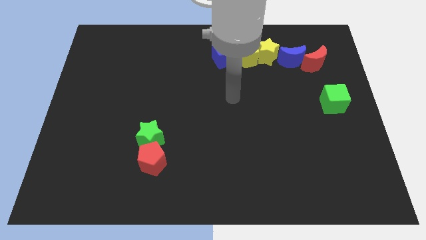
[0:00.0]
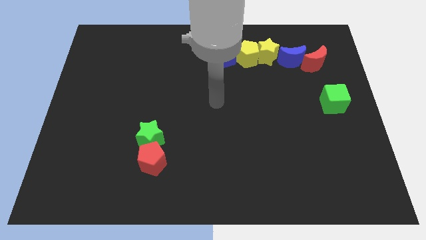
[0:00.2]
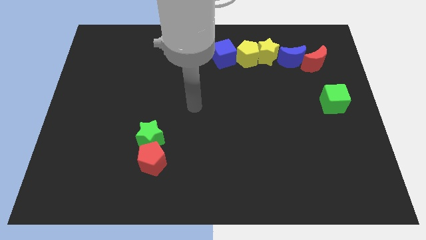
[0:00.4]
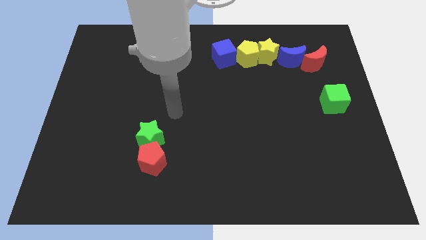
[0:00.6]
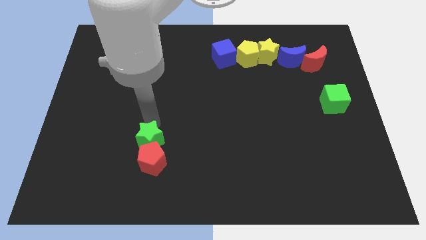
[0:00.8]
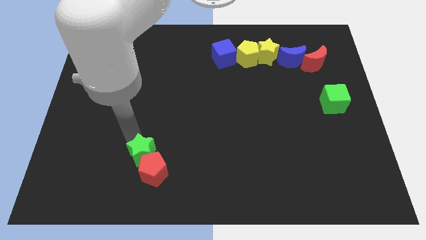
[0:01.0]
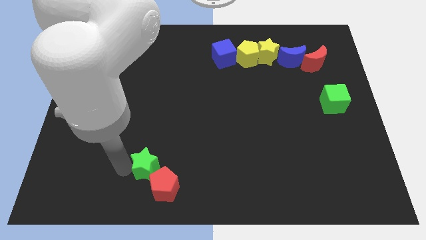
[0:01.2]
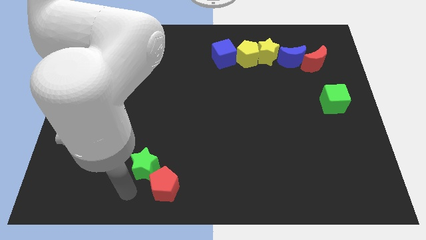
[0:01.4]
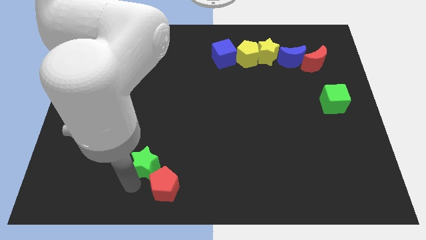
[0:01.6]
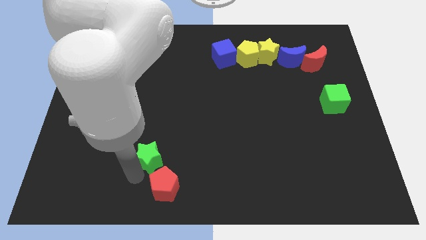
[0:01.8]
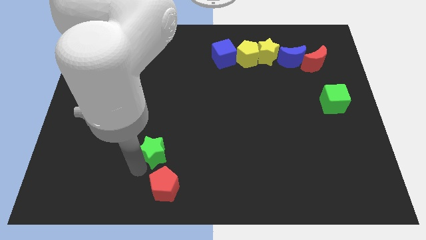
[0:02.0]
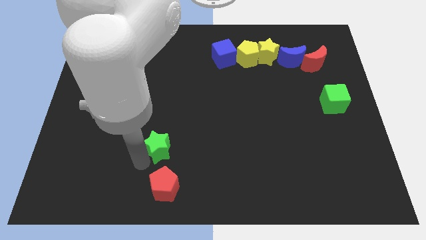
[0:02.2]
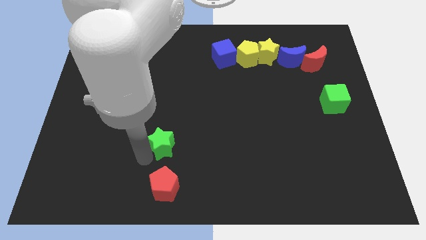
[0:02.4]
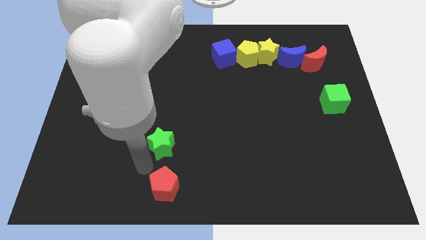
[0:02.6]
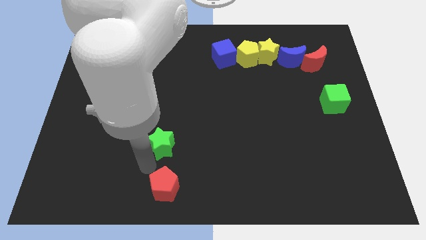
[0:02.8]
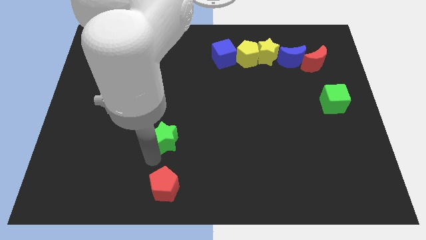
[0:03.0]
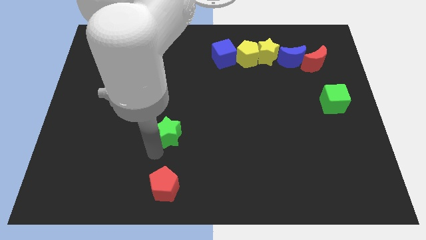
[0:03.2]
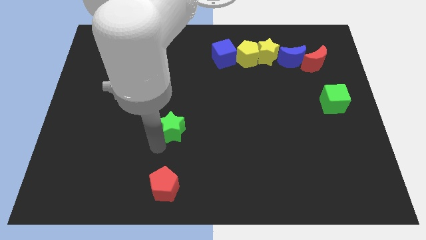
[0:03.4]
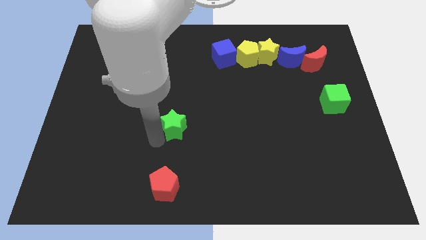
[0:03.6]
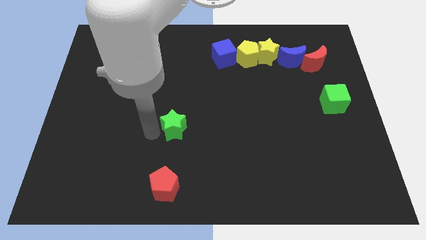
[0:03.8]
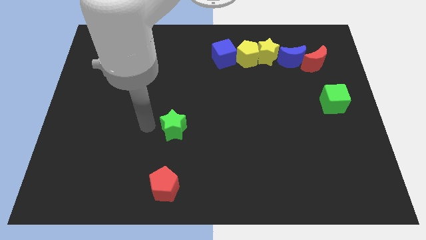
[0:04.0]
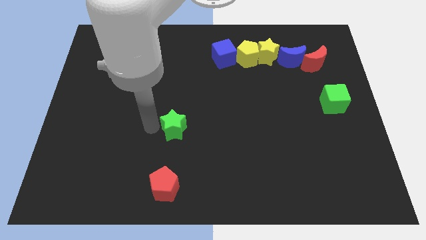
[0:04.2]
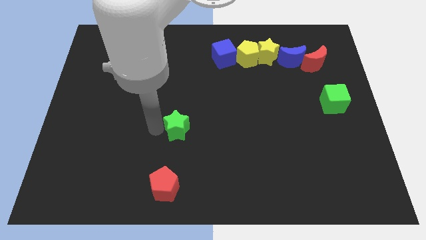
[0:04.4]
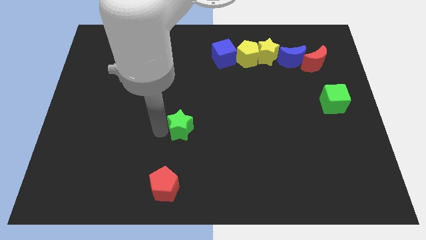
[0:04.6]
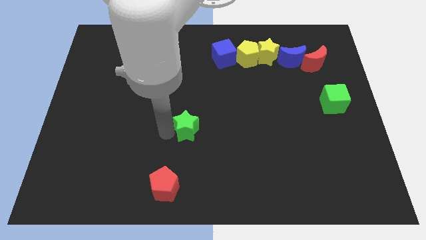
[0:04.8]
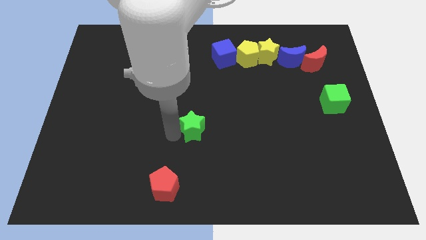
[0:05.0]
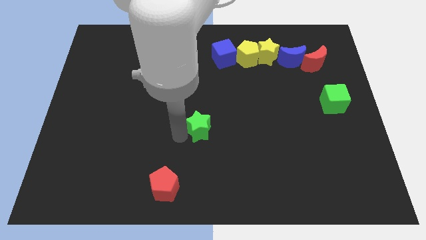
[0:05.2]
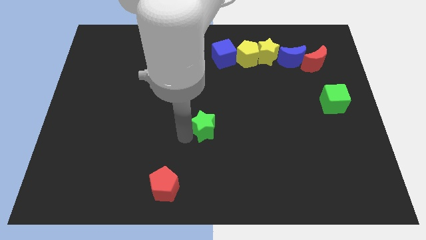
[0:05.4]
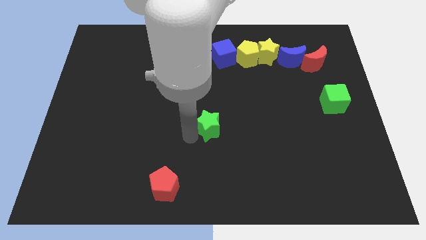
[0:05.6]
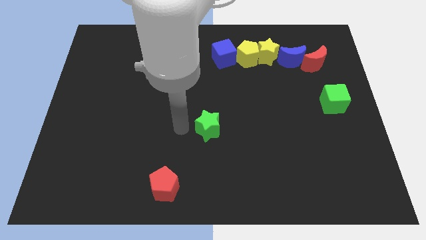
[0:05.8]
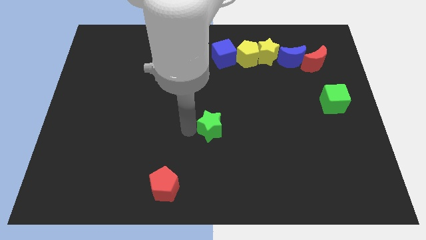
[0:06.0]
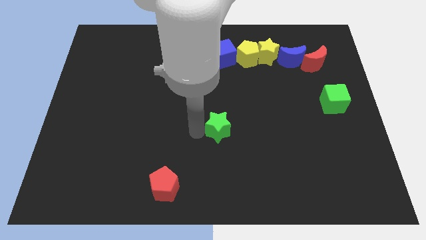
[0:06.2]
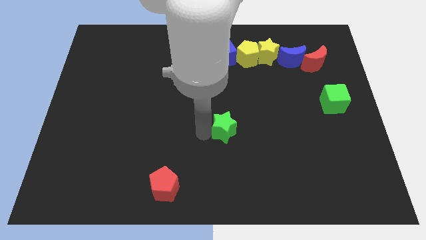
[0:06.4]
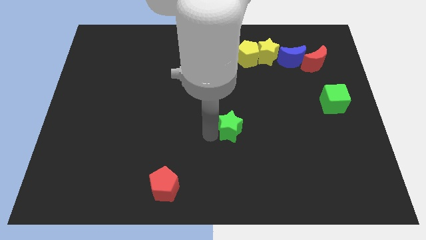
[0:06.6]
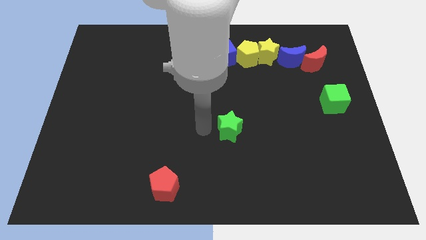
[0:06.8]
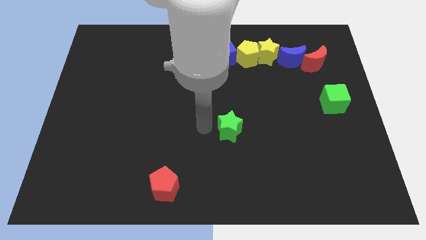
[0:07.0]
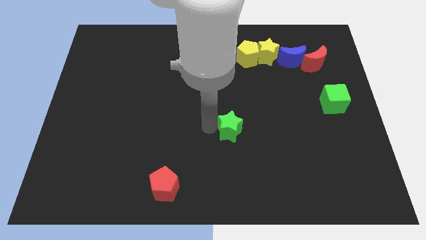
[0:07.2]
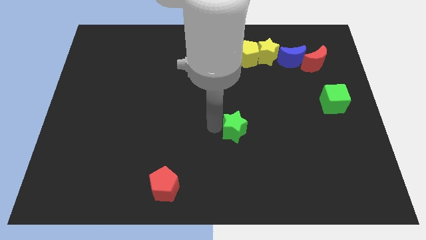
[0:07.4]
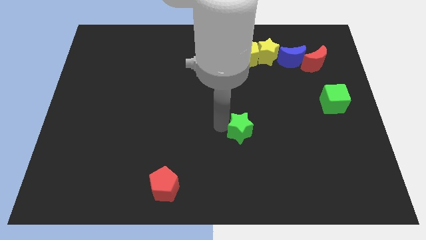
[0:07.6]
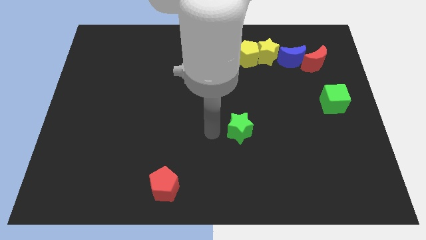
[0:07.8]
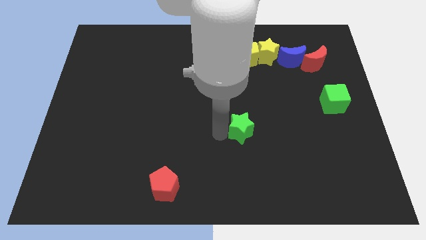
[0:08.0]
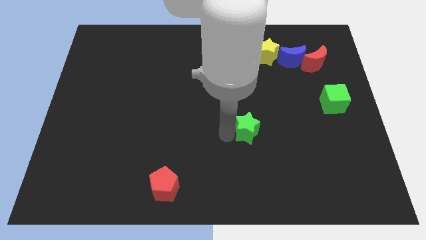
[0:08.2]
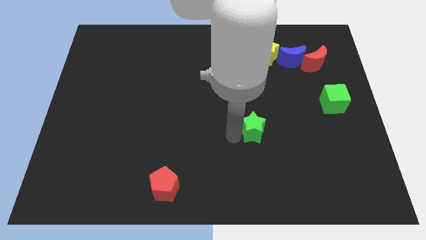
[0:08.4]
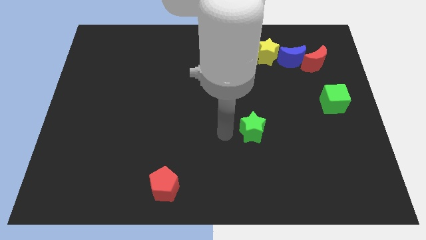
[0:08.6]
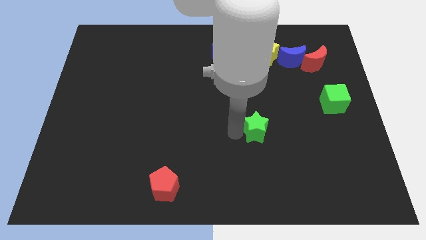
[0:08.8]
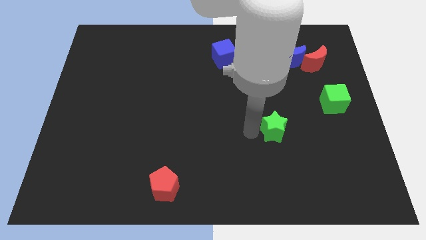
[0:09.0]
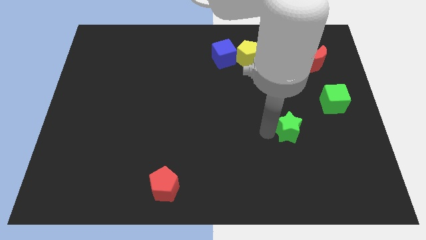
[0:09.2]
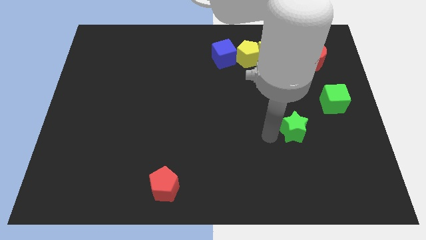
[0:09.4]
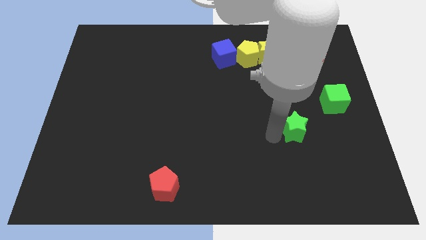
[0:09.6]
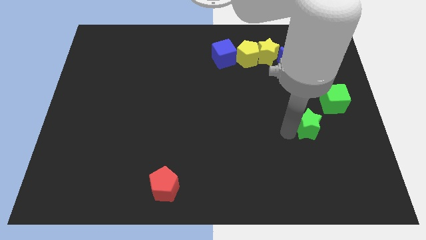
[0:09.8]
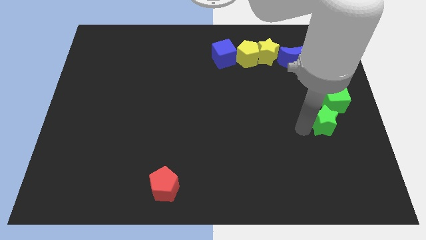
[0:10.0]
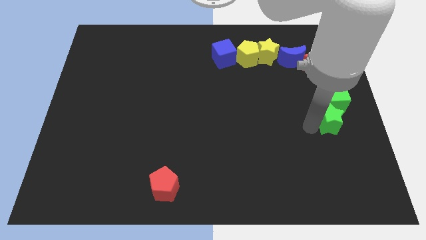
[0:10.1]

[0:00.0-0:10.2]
move the green star to the center right

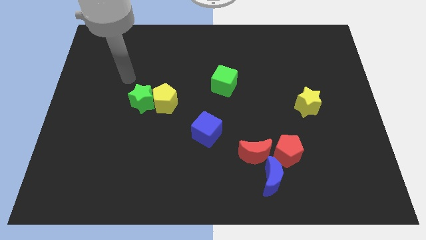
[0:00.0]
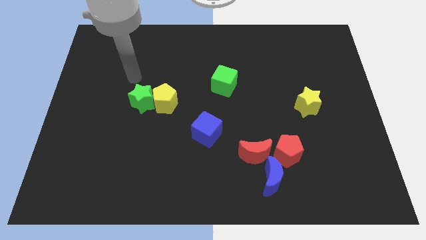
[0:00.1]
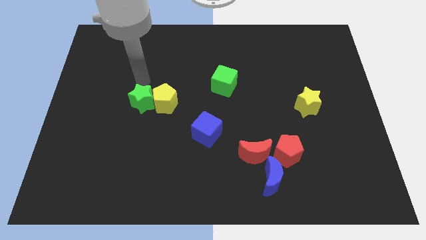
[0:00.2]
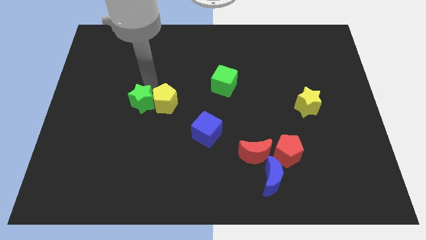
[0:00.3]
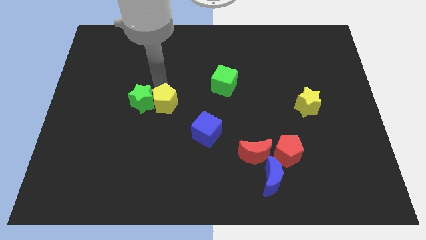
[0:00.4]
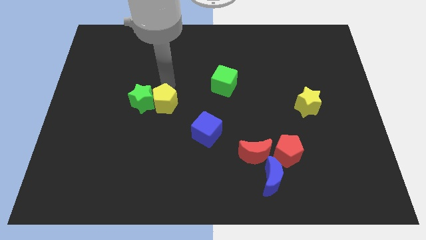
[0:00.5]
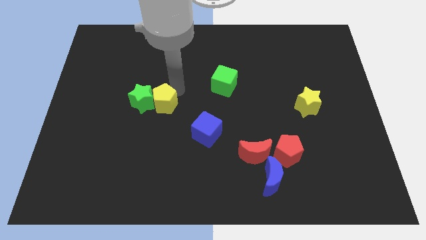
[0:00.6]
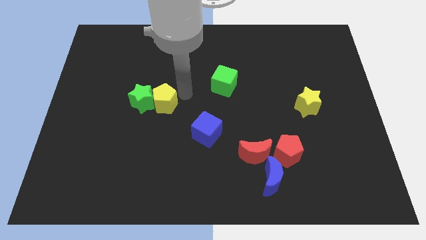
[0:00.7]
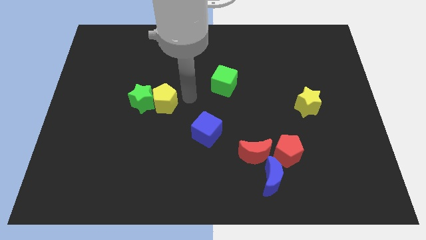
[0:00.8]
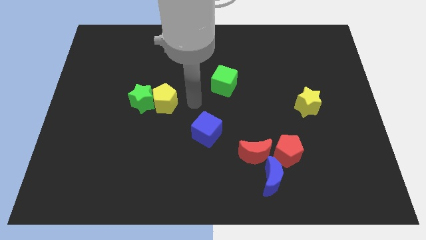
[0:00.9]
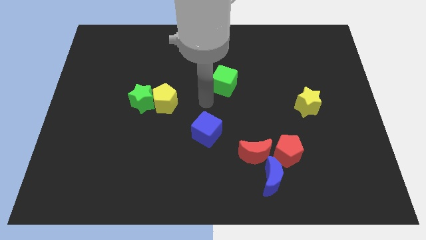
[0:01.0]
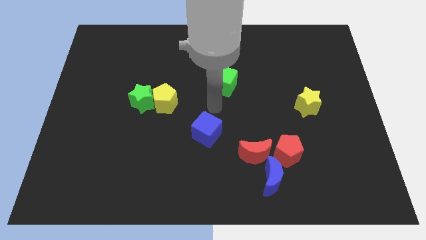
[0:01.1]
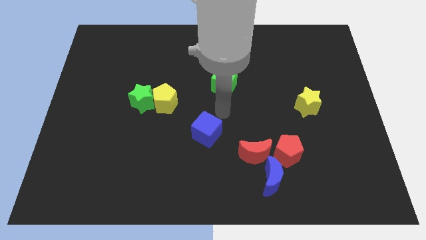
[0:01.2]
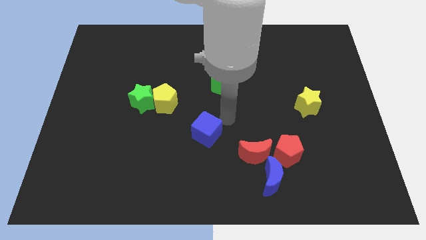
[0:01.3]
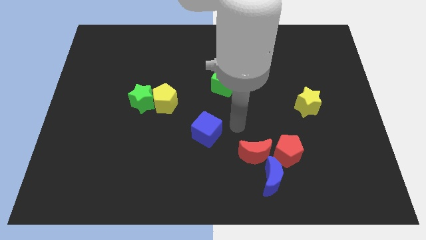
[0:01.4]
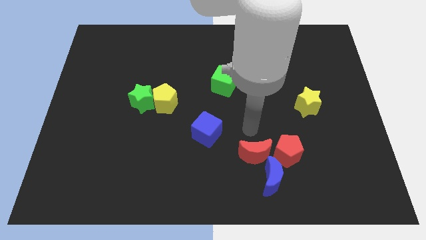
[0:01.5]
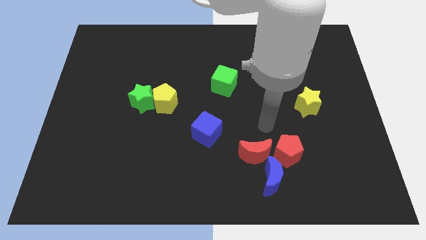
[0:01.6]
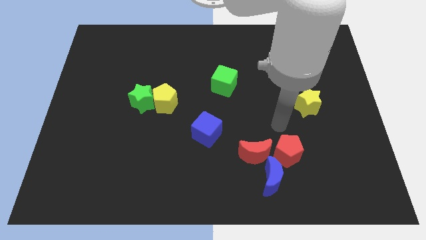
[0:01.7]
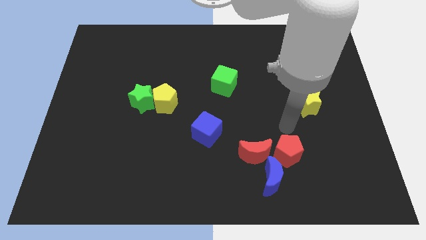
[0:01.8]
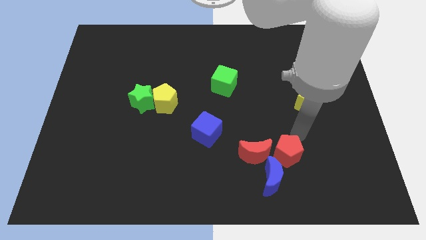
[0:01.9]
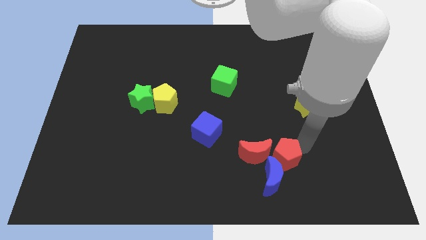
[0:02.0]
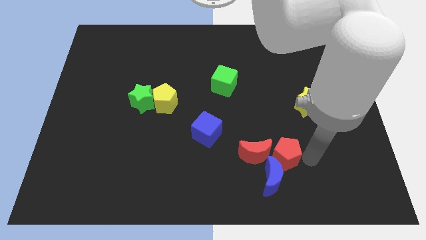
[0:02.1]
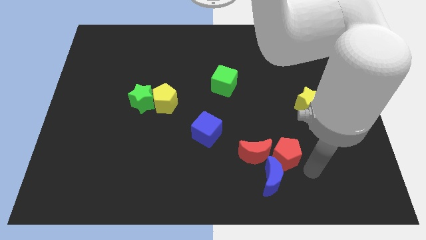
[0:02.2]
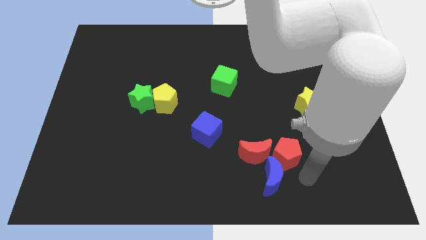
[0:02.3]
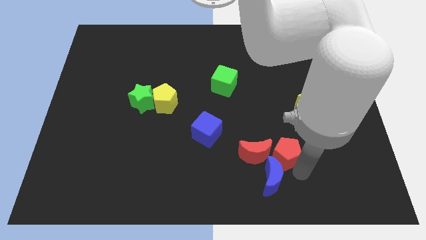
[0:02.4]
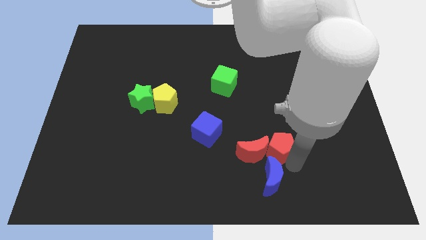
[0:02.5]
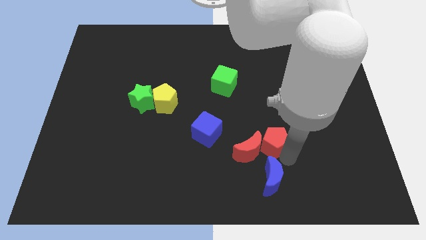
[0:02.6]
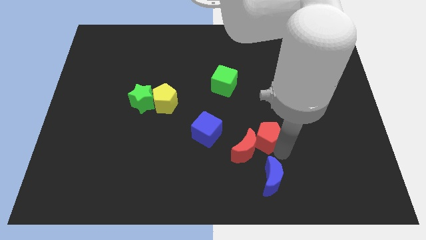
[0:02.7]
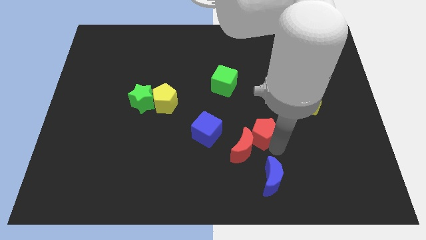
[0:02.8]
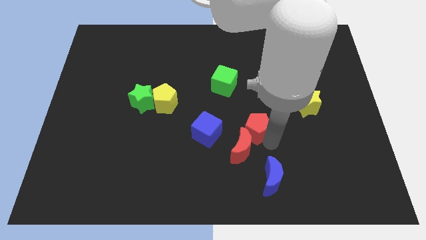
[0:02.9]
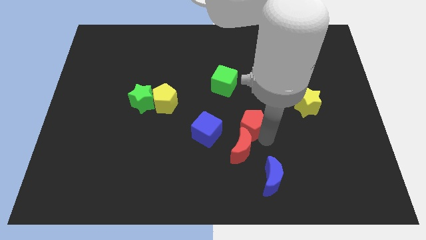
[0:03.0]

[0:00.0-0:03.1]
move the red pentagon to the middle of the board
